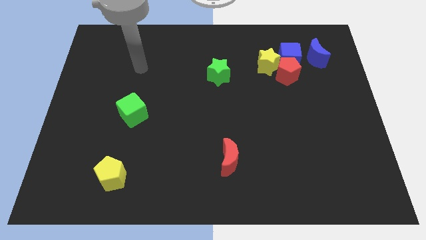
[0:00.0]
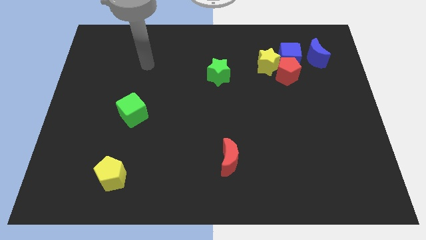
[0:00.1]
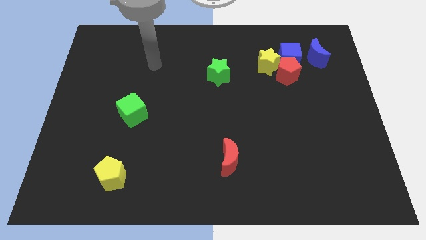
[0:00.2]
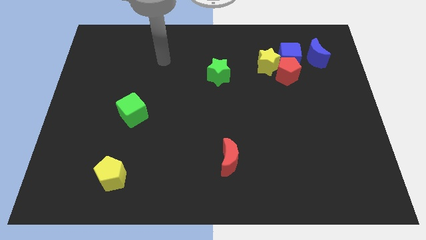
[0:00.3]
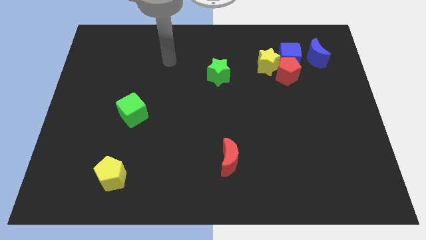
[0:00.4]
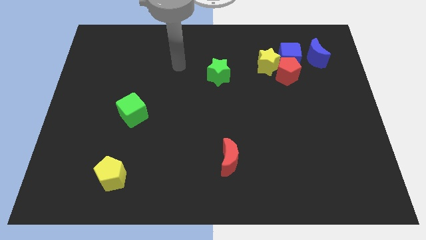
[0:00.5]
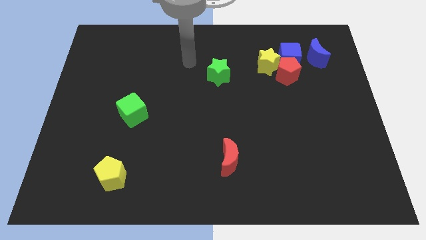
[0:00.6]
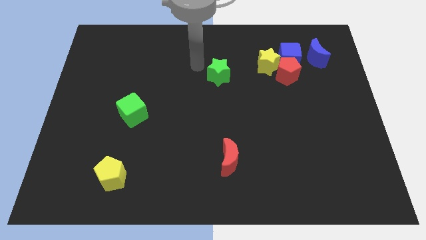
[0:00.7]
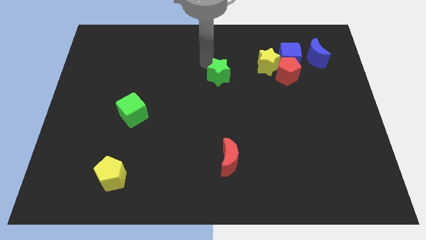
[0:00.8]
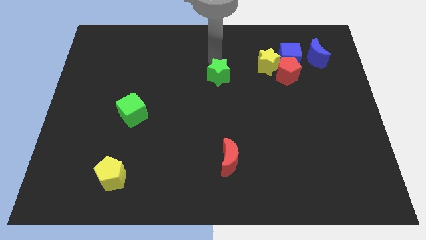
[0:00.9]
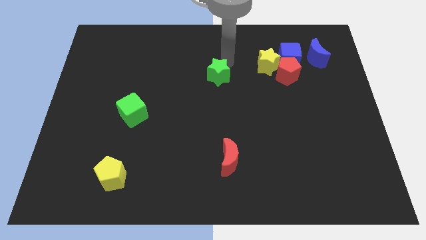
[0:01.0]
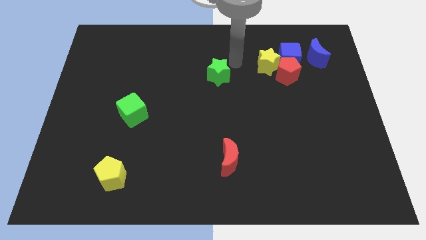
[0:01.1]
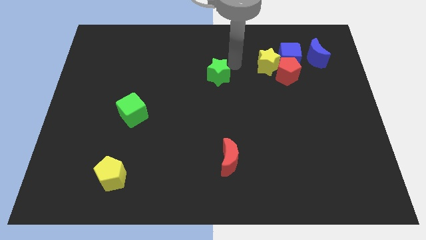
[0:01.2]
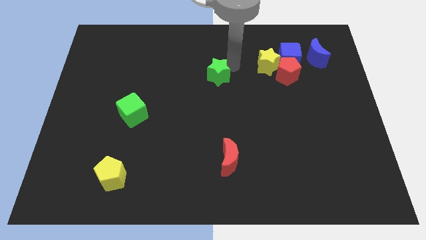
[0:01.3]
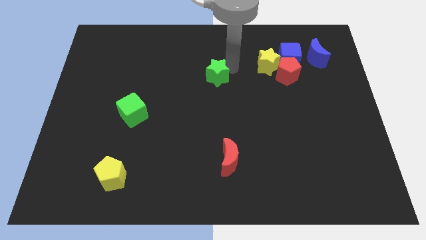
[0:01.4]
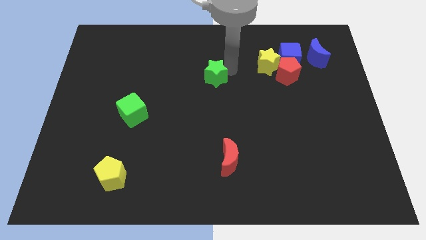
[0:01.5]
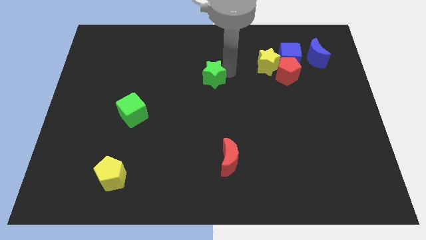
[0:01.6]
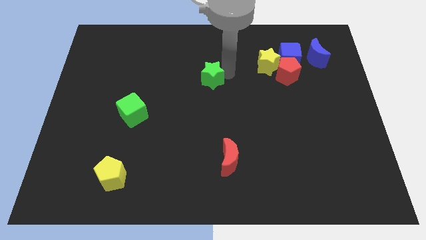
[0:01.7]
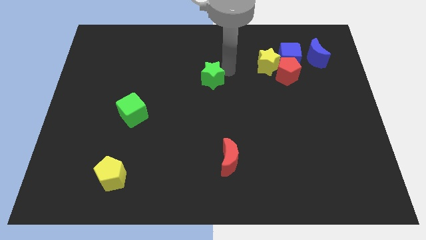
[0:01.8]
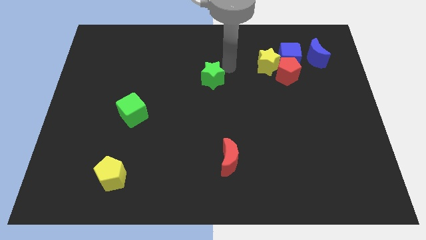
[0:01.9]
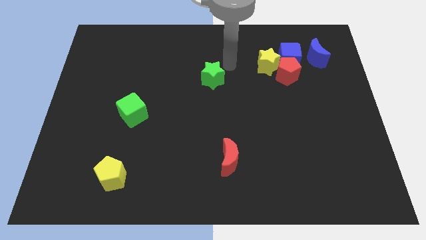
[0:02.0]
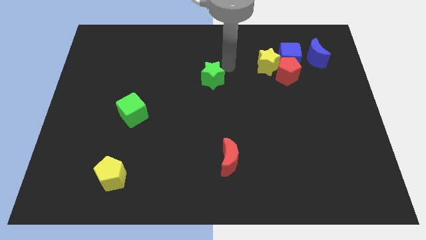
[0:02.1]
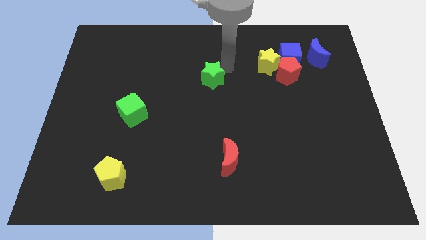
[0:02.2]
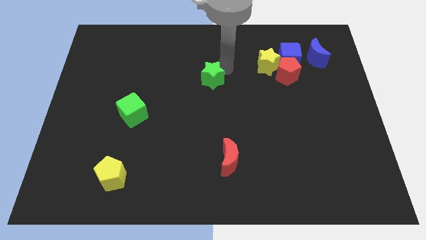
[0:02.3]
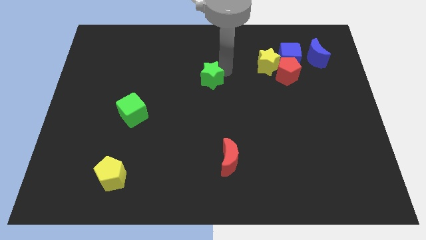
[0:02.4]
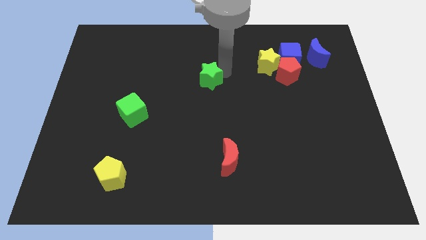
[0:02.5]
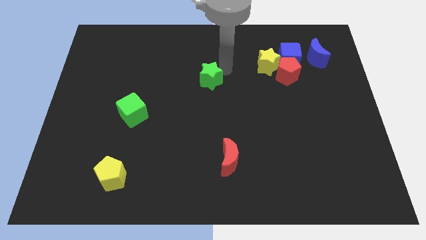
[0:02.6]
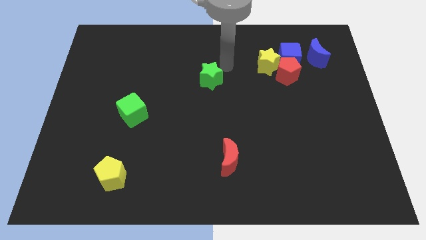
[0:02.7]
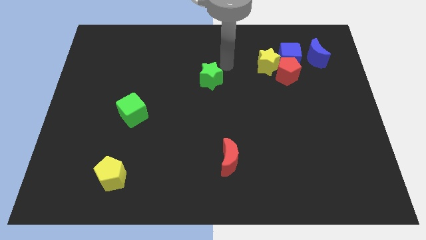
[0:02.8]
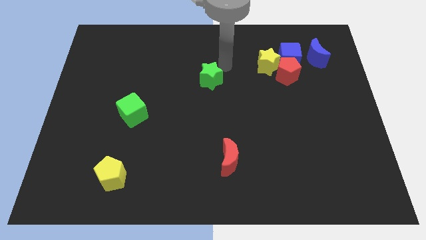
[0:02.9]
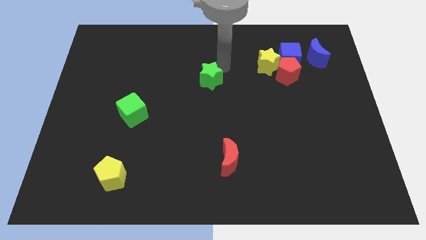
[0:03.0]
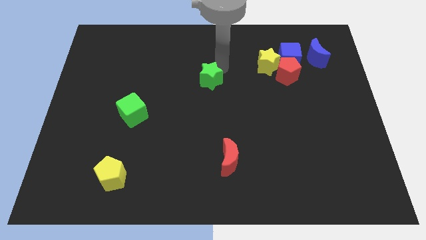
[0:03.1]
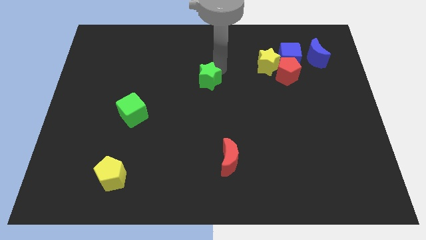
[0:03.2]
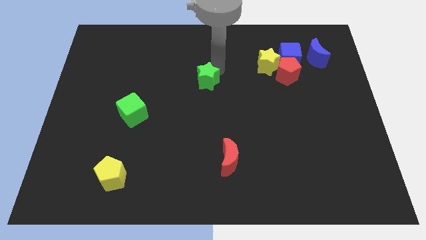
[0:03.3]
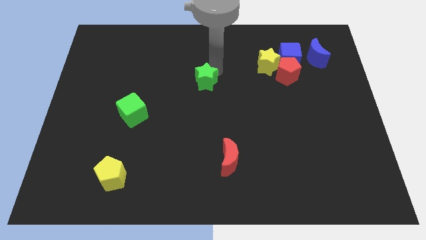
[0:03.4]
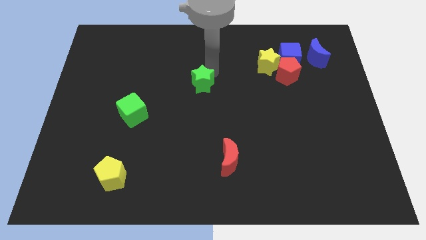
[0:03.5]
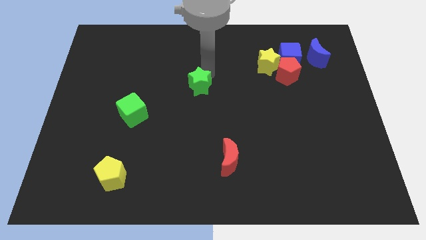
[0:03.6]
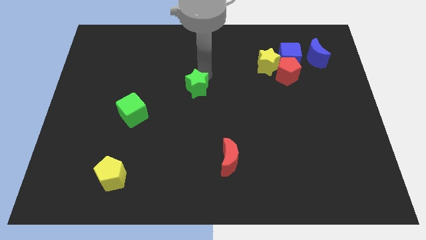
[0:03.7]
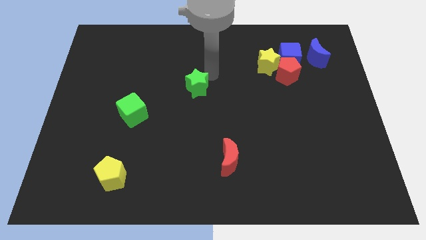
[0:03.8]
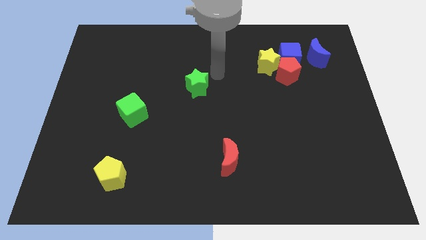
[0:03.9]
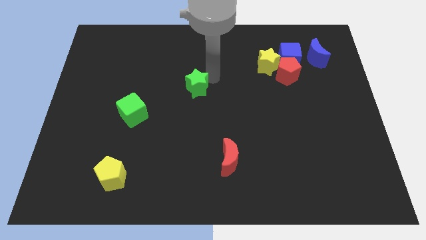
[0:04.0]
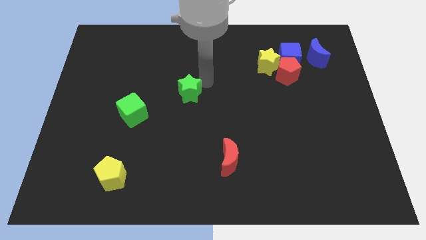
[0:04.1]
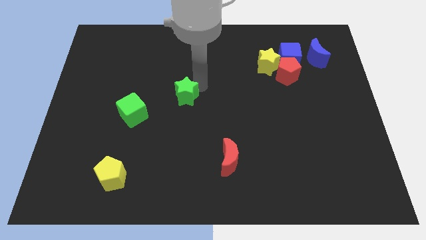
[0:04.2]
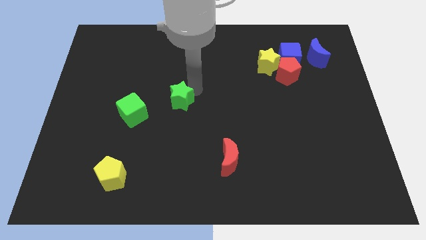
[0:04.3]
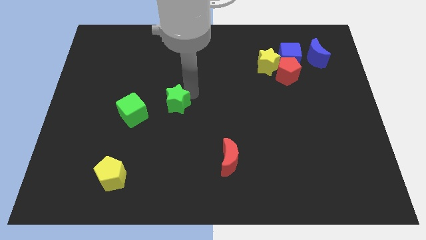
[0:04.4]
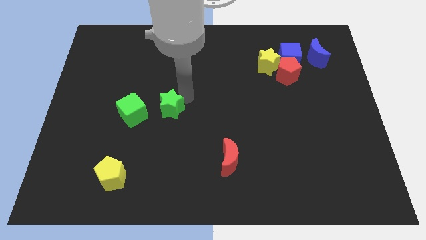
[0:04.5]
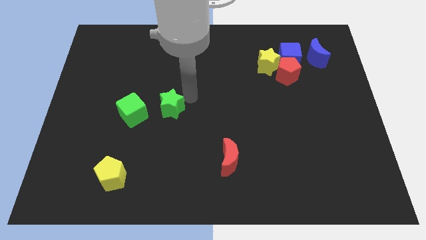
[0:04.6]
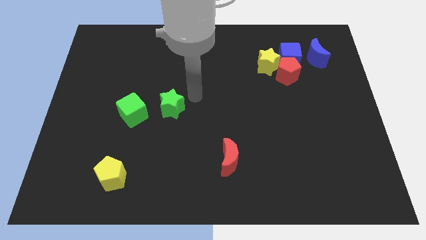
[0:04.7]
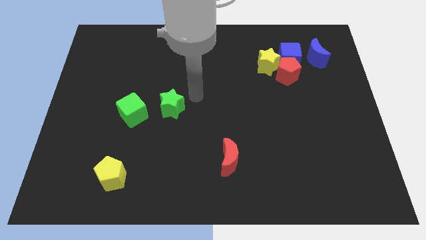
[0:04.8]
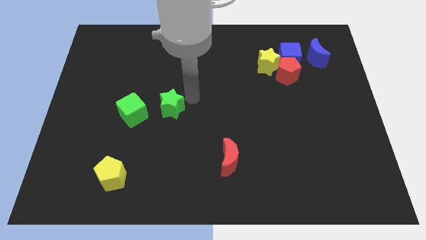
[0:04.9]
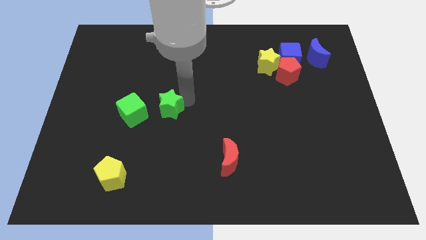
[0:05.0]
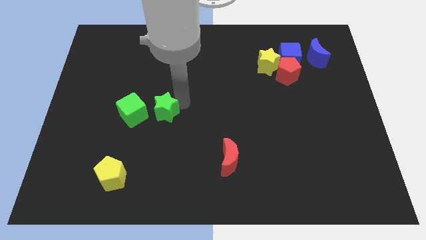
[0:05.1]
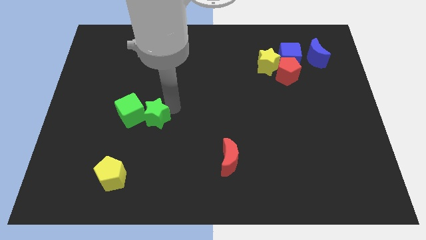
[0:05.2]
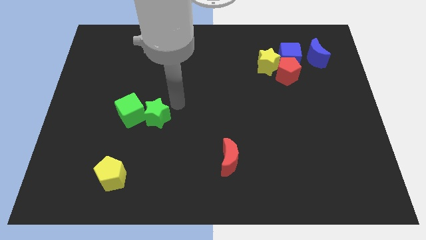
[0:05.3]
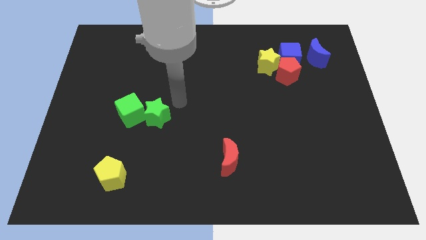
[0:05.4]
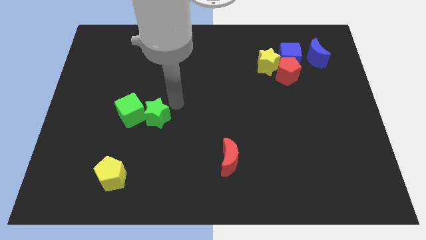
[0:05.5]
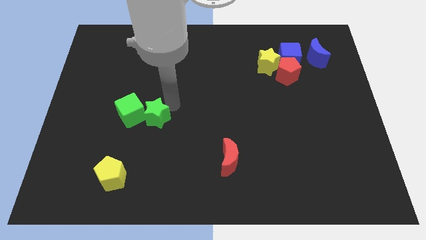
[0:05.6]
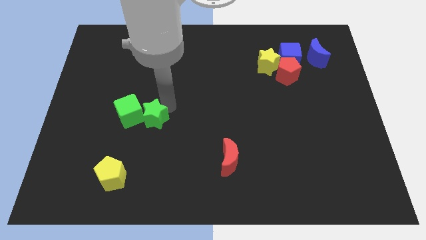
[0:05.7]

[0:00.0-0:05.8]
push the green star downwards and left diagonally

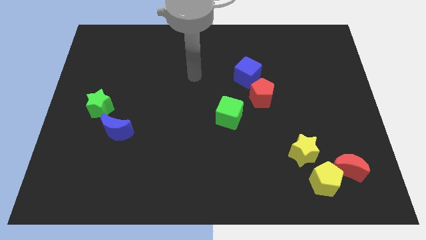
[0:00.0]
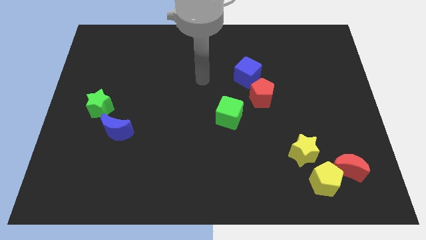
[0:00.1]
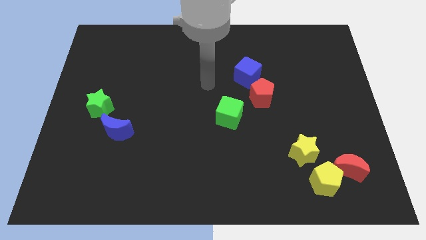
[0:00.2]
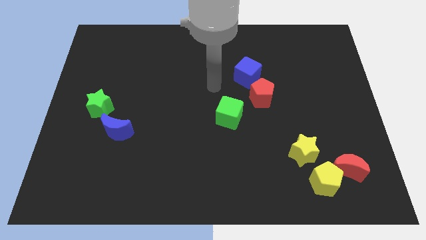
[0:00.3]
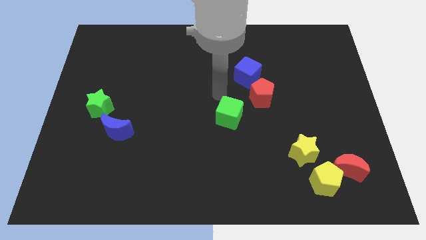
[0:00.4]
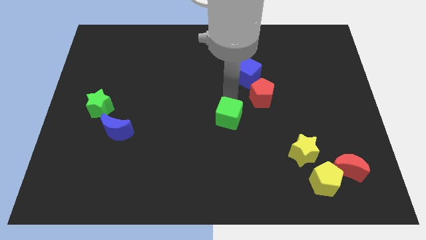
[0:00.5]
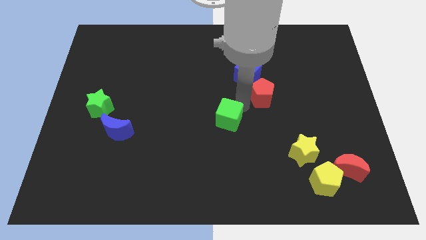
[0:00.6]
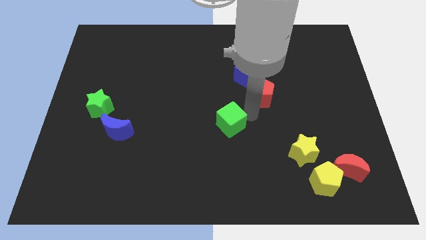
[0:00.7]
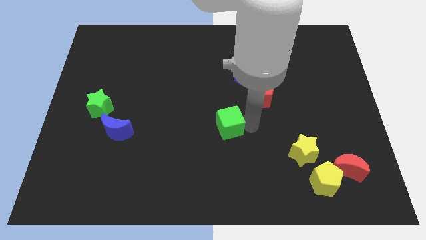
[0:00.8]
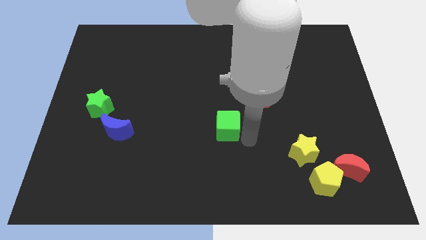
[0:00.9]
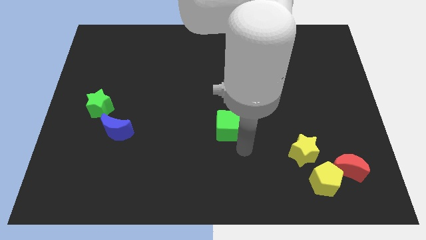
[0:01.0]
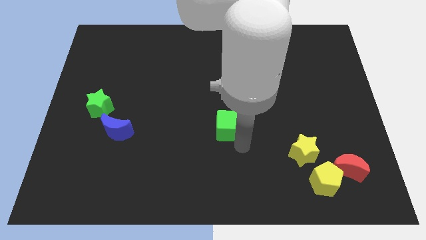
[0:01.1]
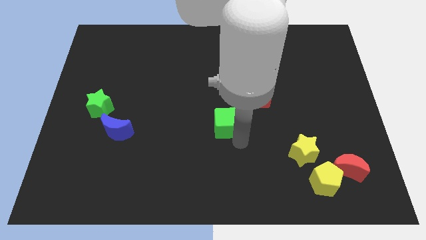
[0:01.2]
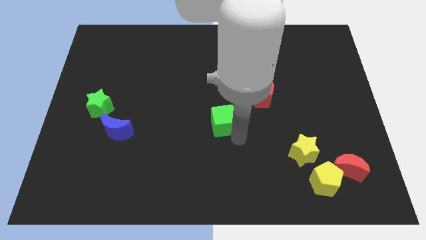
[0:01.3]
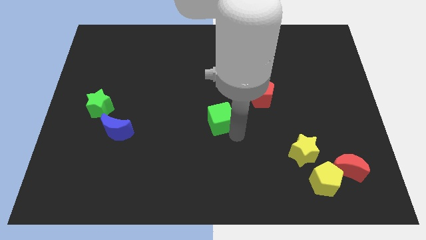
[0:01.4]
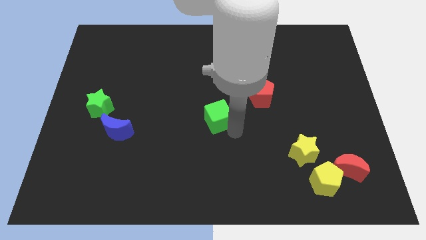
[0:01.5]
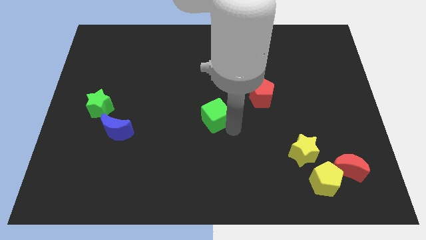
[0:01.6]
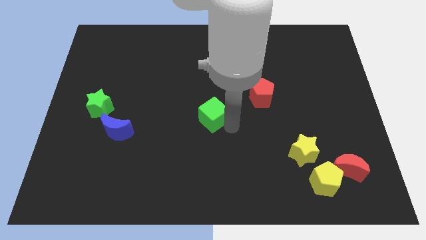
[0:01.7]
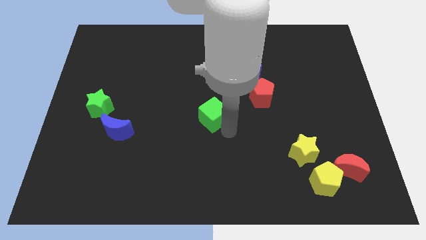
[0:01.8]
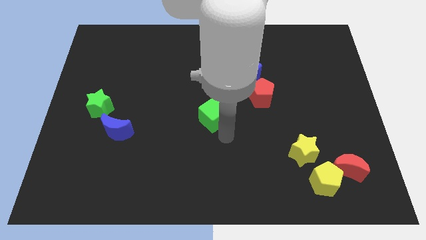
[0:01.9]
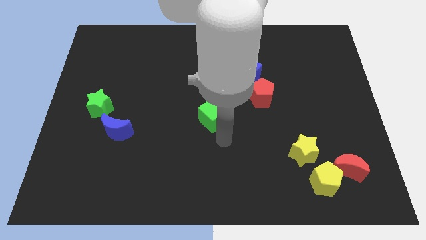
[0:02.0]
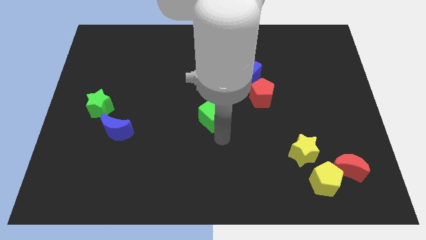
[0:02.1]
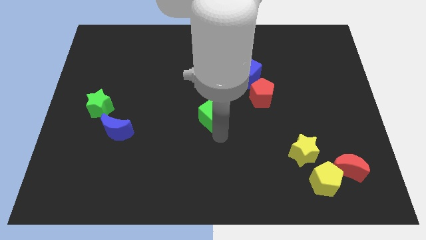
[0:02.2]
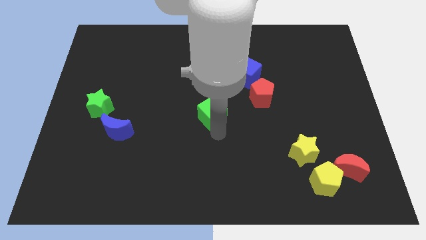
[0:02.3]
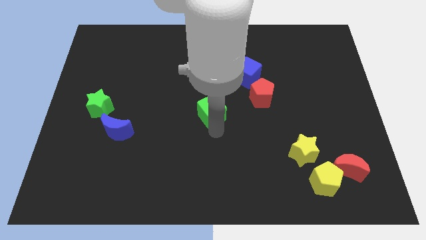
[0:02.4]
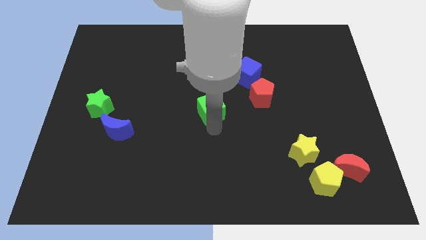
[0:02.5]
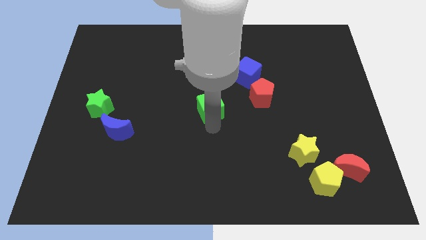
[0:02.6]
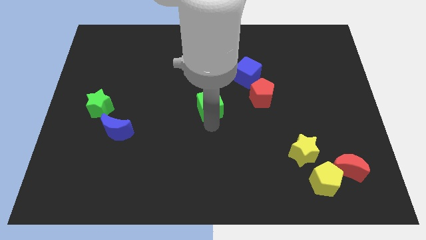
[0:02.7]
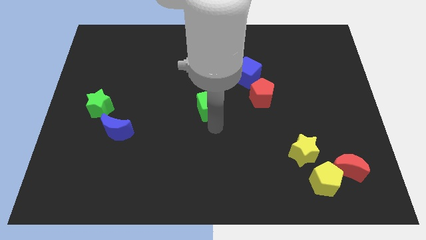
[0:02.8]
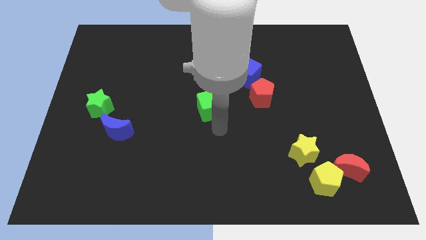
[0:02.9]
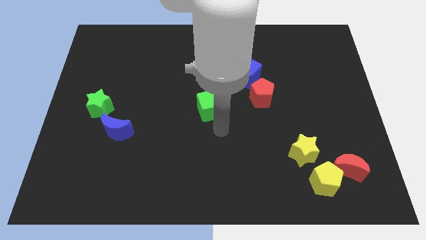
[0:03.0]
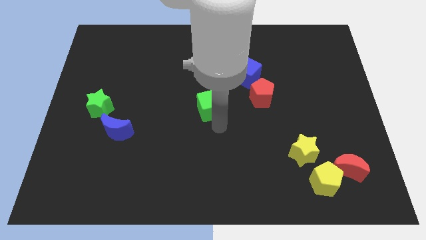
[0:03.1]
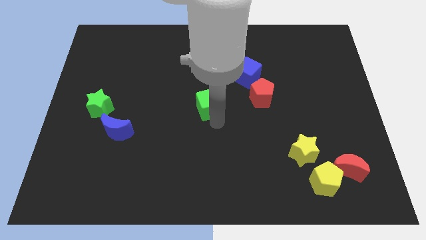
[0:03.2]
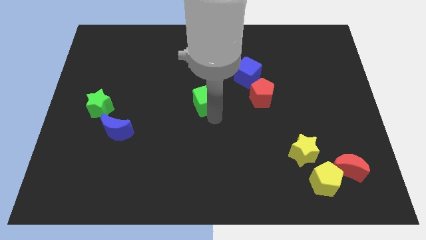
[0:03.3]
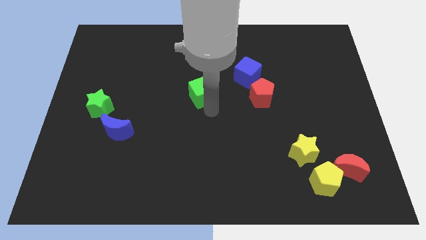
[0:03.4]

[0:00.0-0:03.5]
push the green cube a little bit upwards and then to the left
